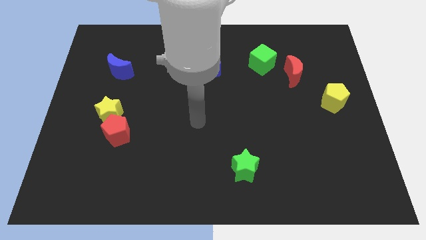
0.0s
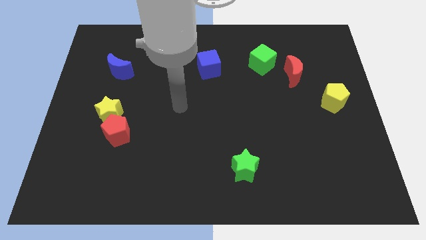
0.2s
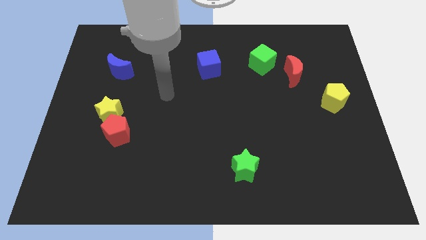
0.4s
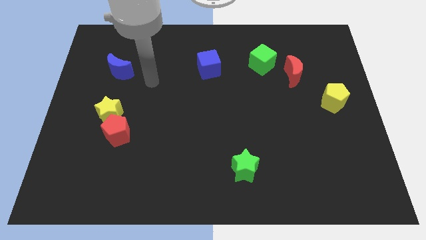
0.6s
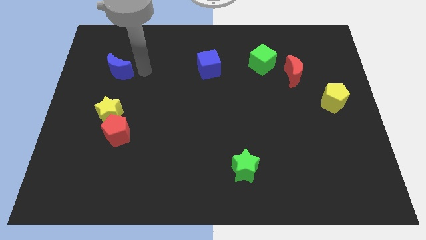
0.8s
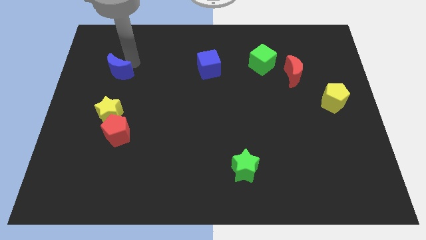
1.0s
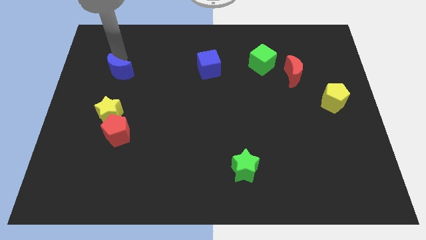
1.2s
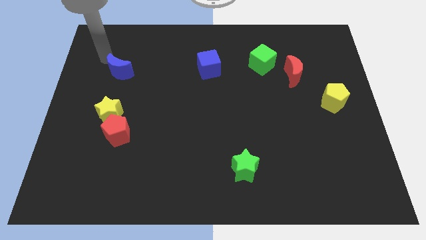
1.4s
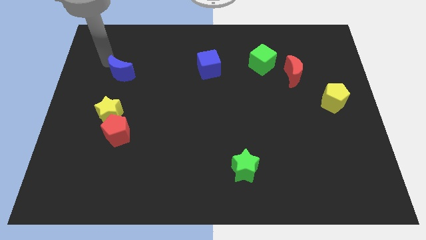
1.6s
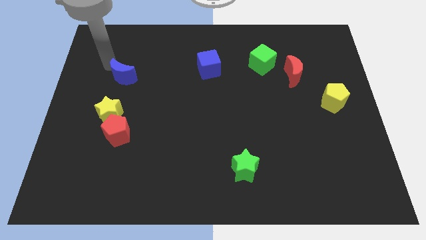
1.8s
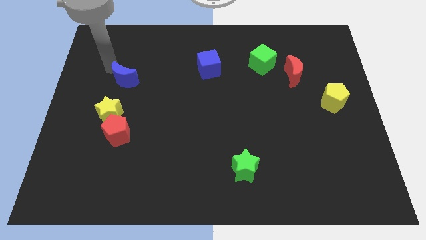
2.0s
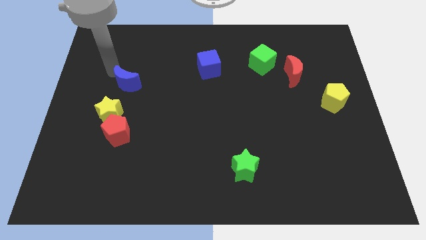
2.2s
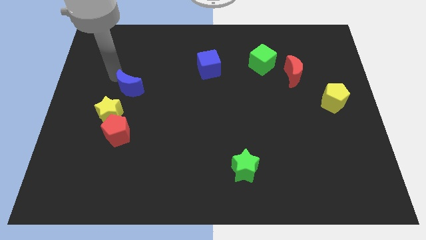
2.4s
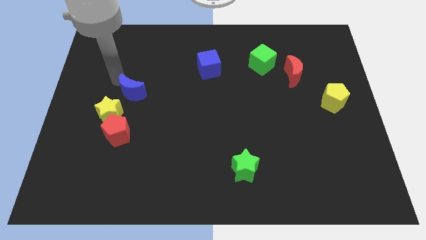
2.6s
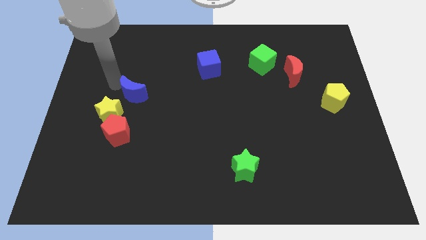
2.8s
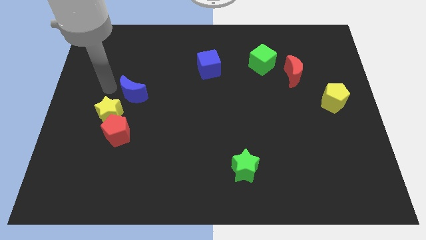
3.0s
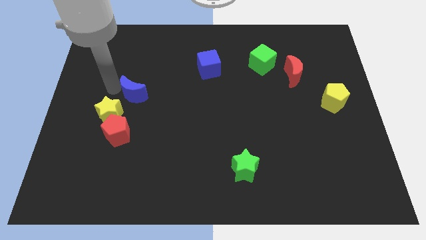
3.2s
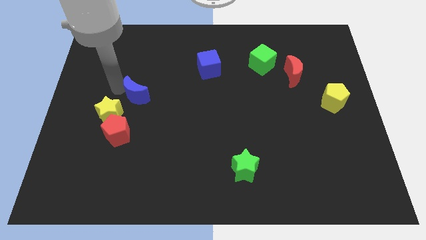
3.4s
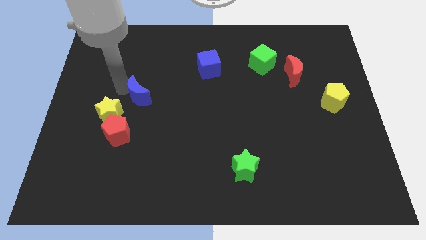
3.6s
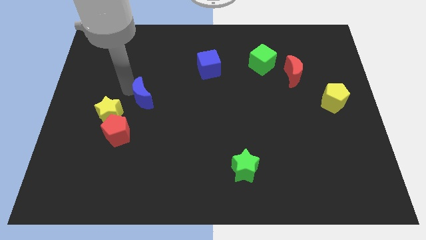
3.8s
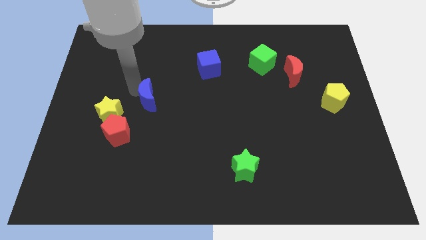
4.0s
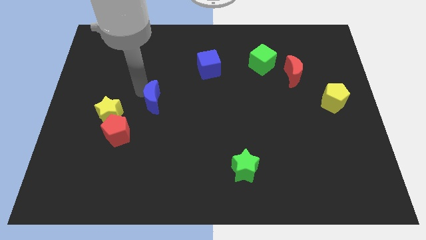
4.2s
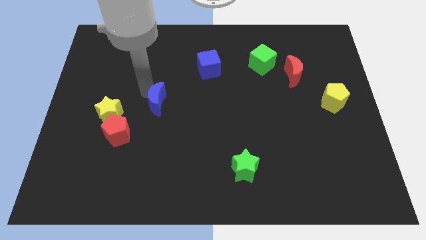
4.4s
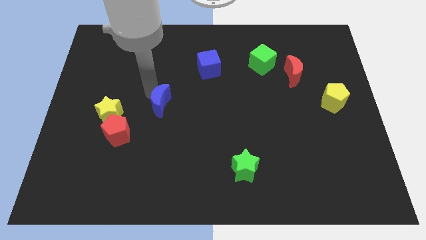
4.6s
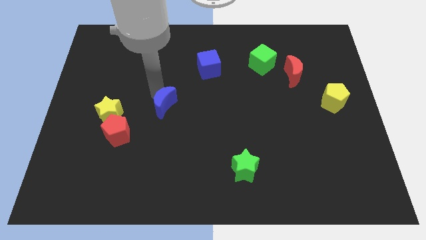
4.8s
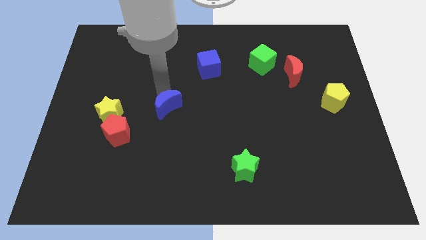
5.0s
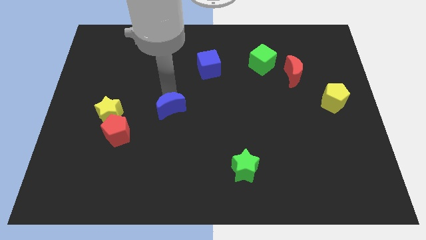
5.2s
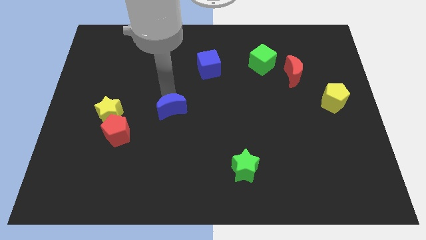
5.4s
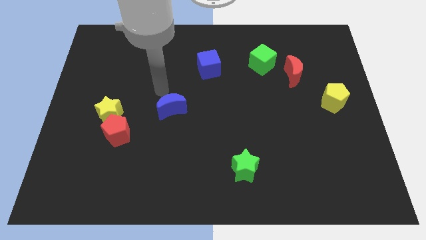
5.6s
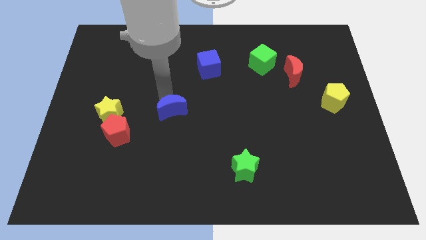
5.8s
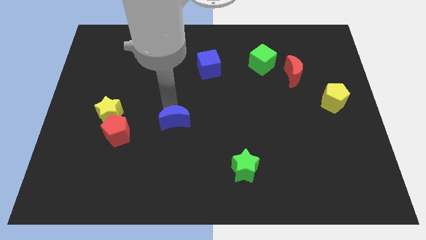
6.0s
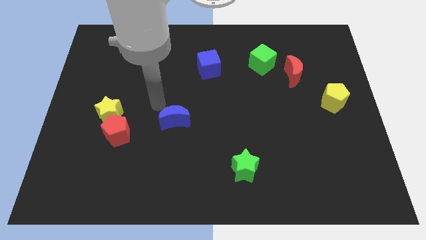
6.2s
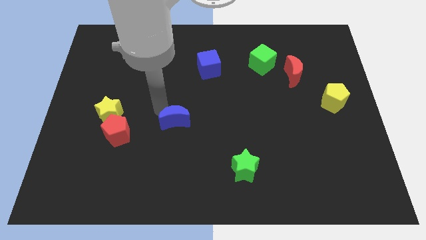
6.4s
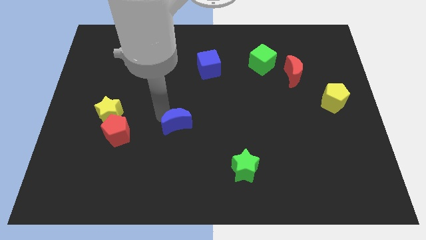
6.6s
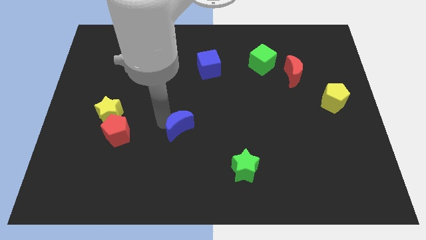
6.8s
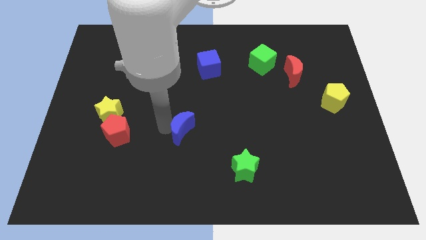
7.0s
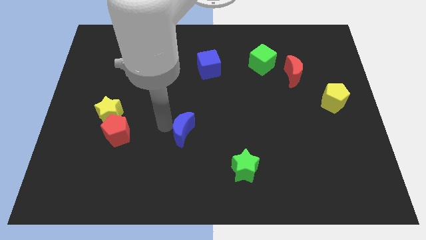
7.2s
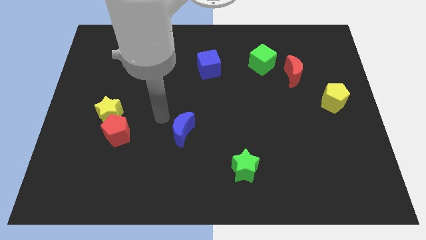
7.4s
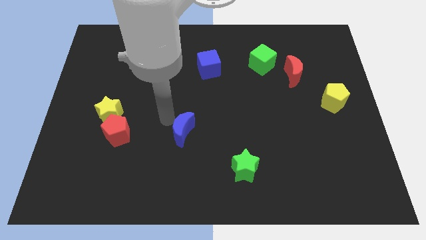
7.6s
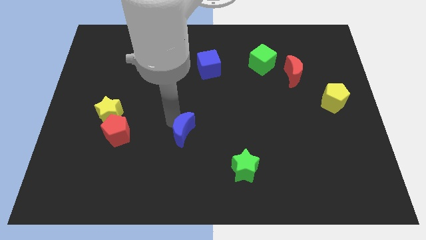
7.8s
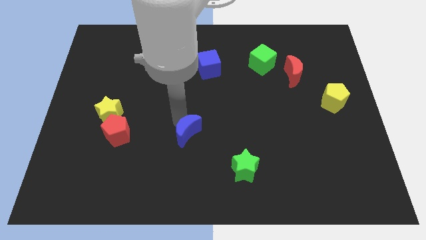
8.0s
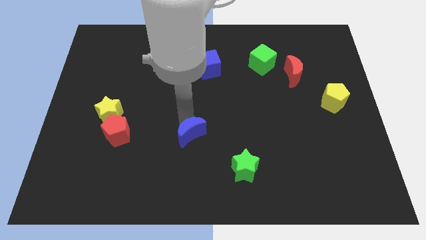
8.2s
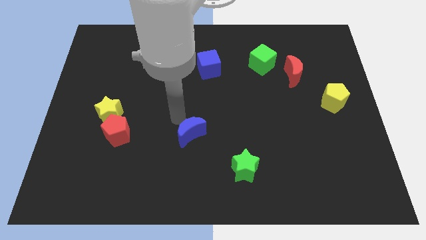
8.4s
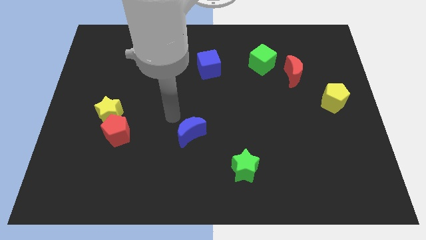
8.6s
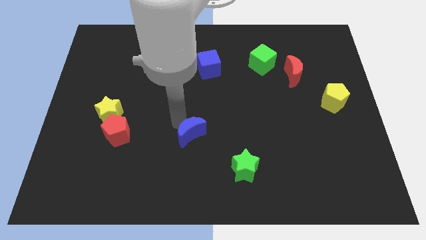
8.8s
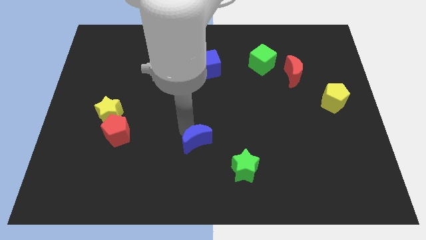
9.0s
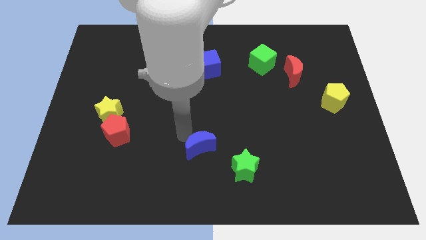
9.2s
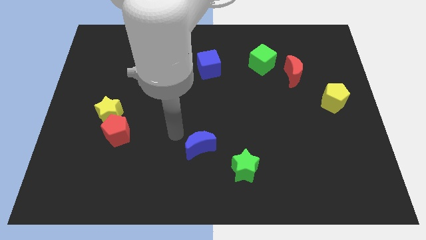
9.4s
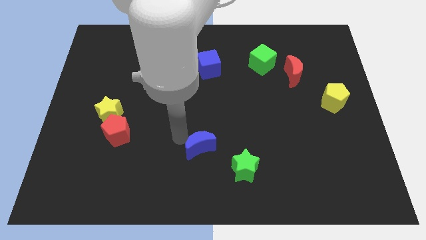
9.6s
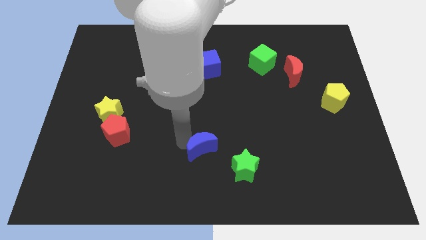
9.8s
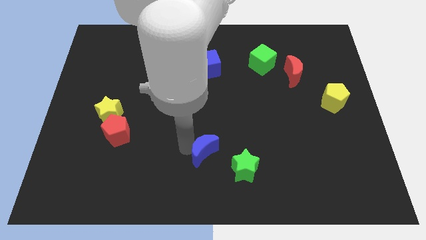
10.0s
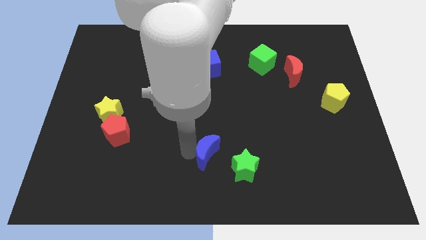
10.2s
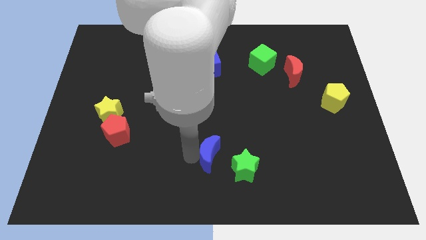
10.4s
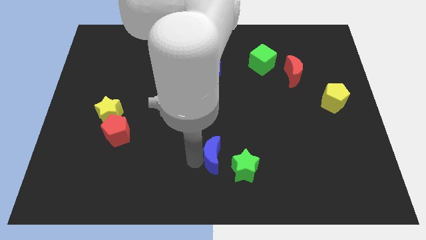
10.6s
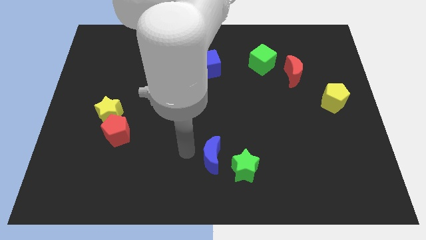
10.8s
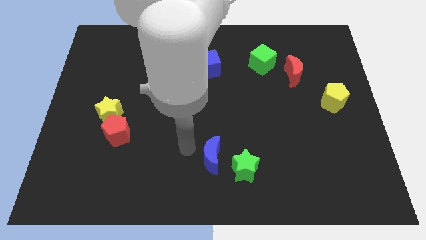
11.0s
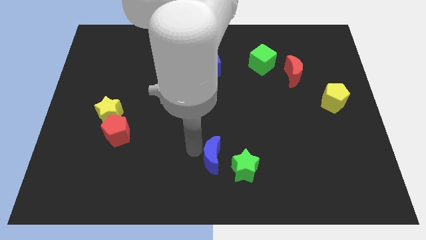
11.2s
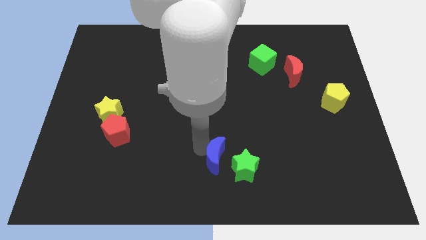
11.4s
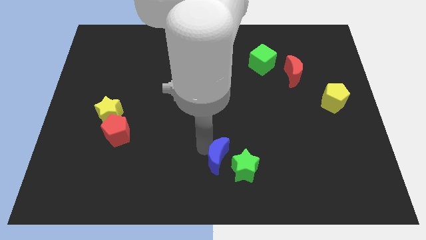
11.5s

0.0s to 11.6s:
put the blue moon towards the green star

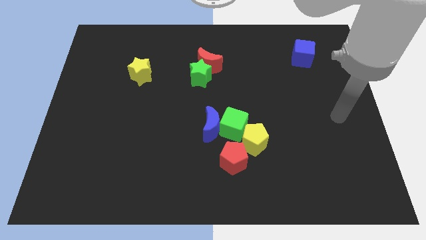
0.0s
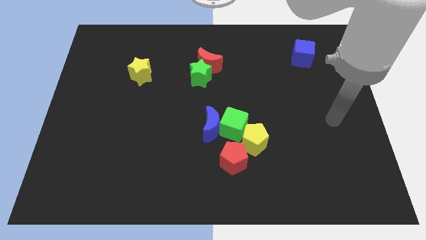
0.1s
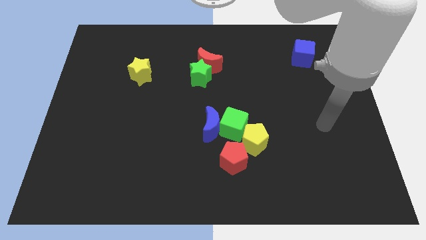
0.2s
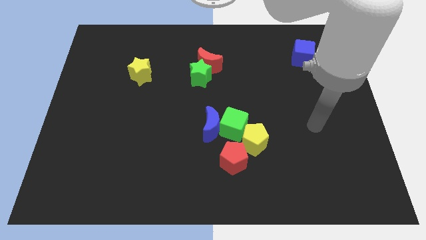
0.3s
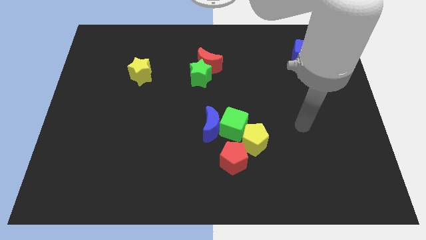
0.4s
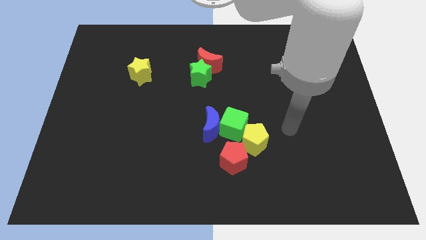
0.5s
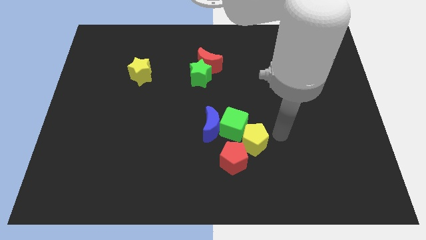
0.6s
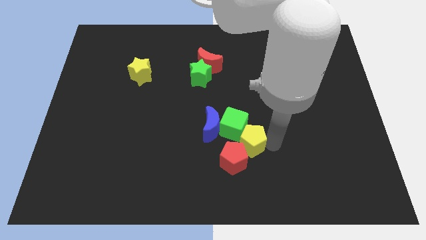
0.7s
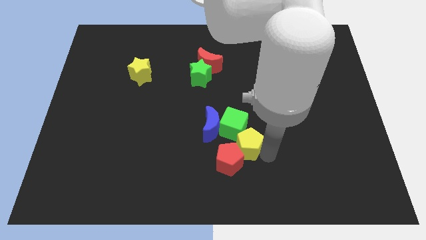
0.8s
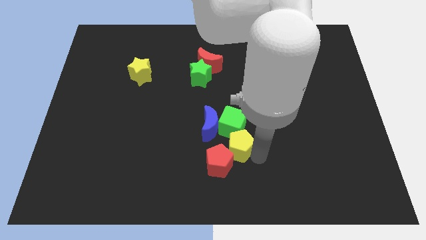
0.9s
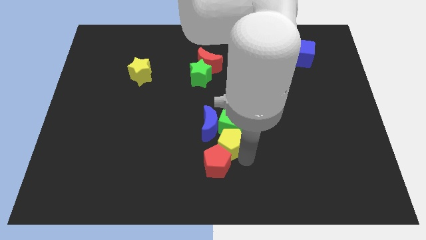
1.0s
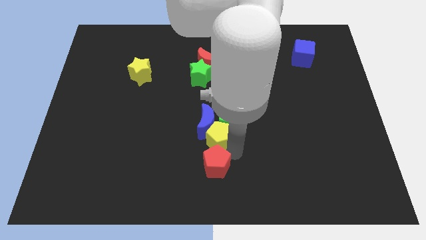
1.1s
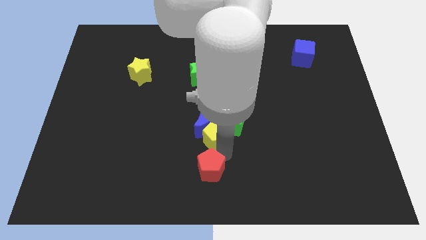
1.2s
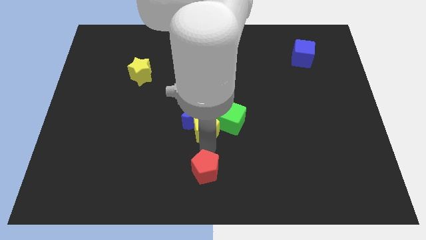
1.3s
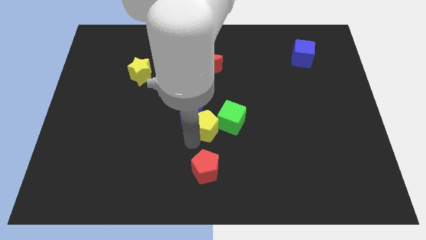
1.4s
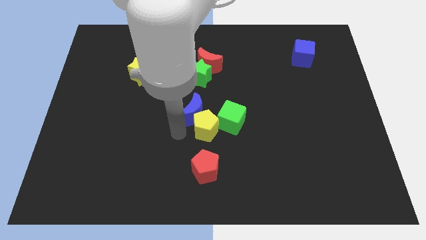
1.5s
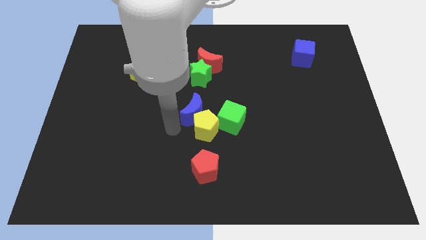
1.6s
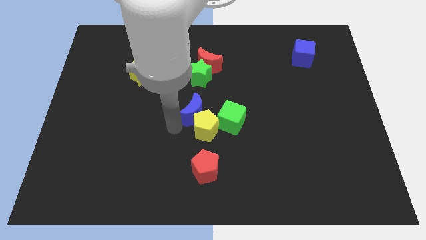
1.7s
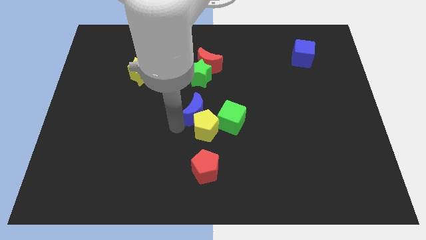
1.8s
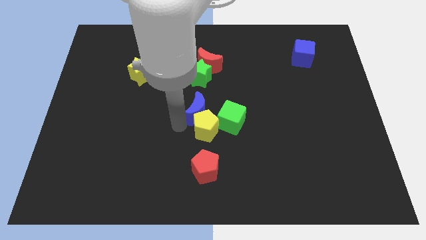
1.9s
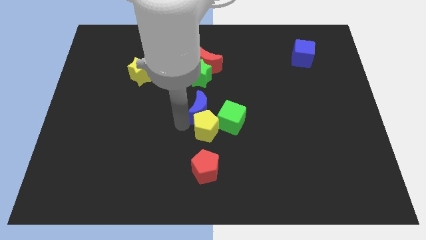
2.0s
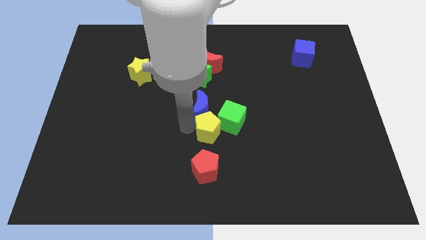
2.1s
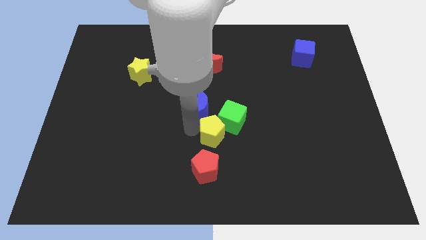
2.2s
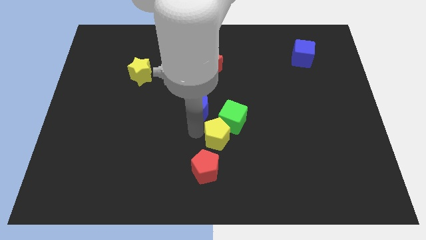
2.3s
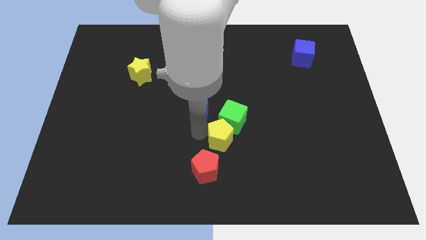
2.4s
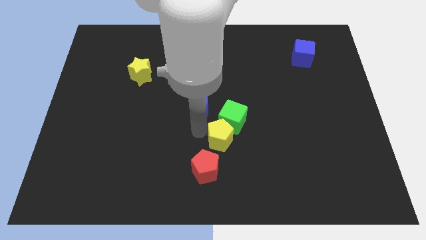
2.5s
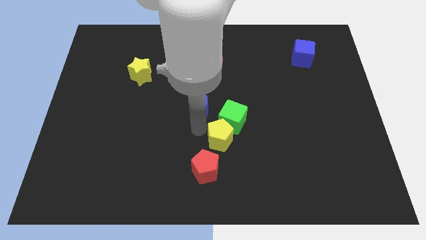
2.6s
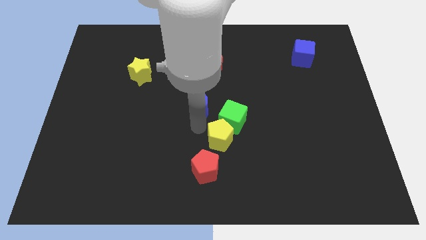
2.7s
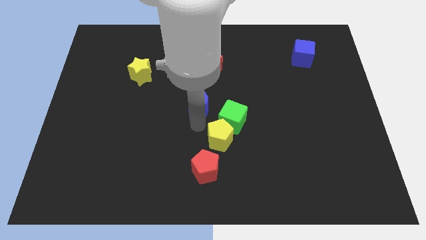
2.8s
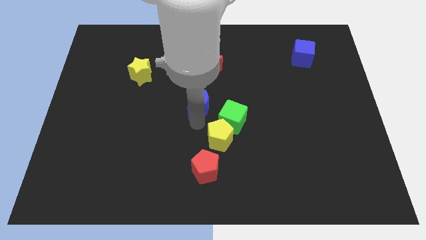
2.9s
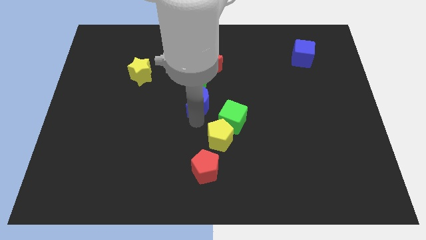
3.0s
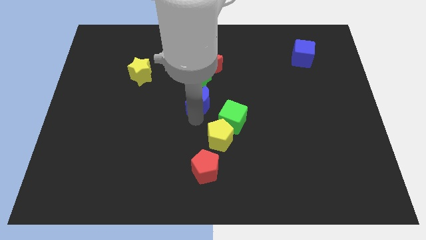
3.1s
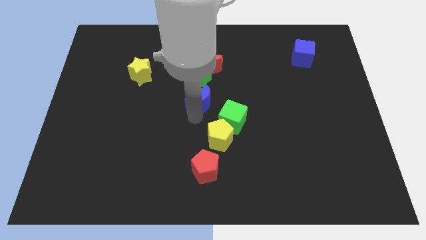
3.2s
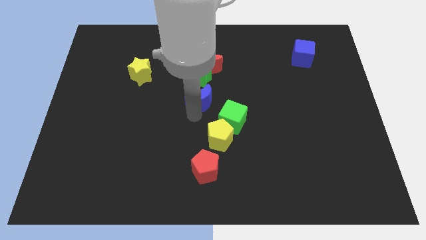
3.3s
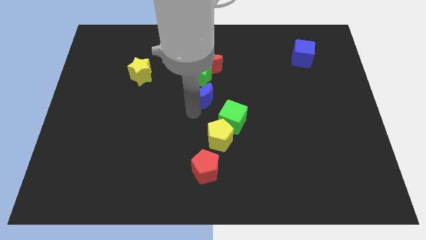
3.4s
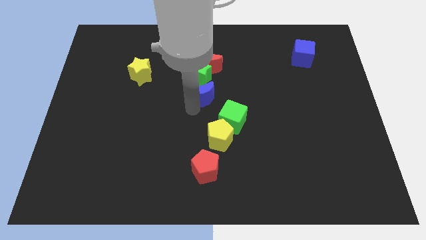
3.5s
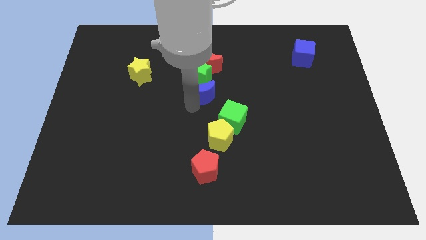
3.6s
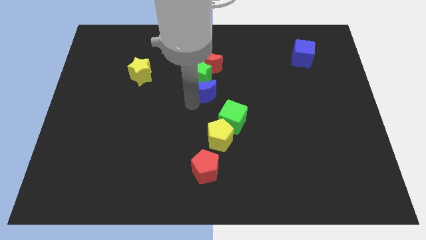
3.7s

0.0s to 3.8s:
move the blue moon next to the green star
